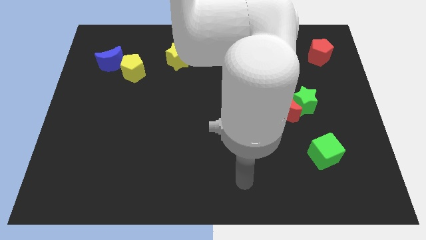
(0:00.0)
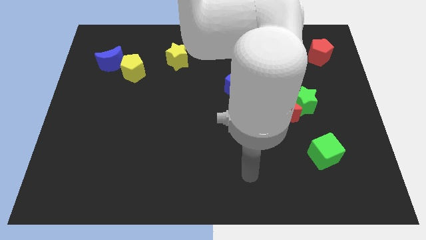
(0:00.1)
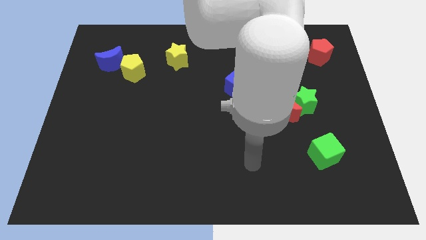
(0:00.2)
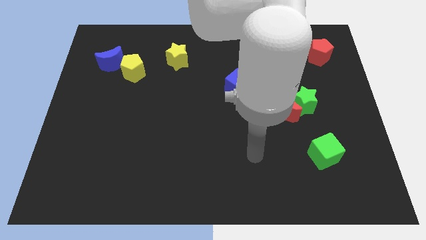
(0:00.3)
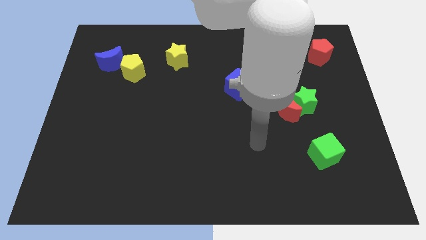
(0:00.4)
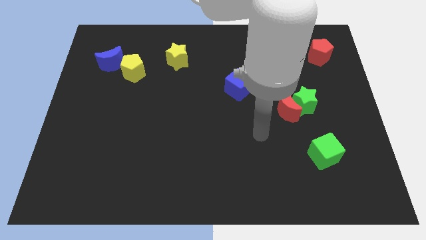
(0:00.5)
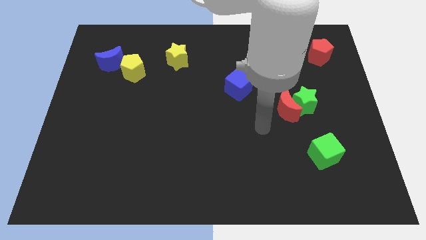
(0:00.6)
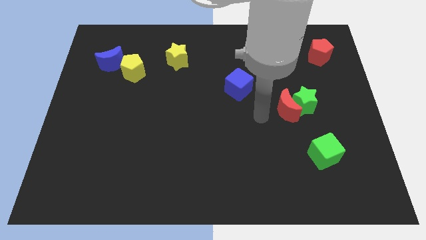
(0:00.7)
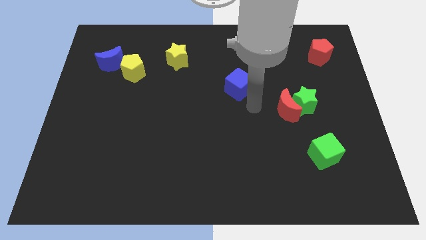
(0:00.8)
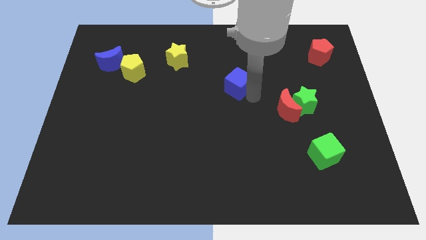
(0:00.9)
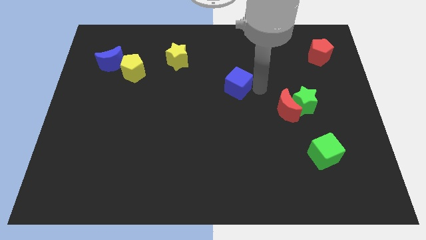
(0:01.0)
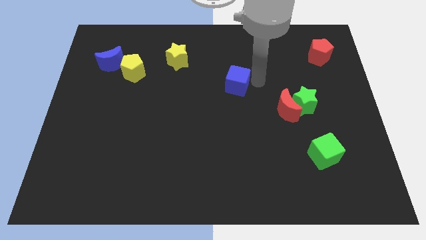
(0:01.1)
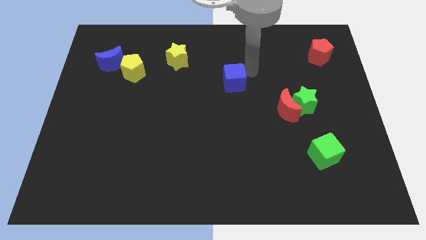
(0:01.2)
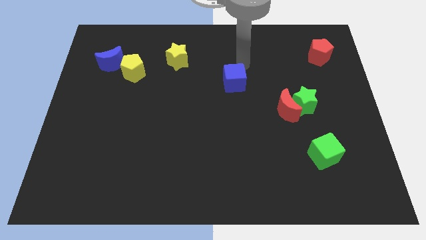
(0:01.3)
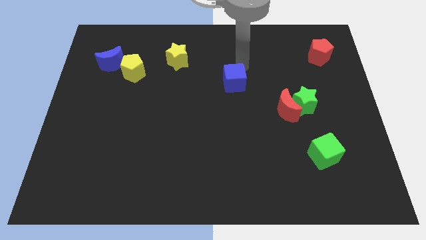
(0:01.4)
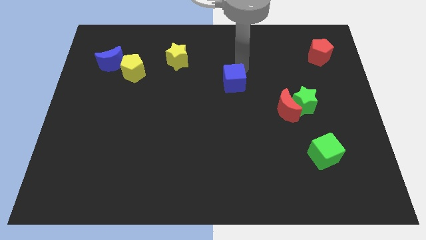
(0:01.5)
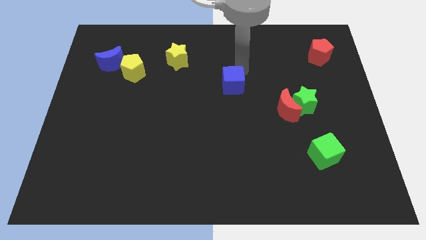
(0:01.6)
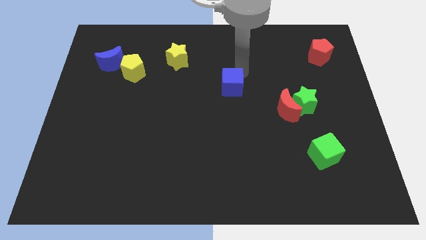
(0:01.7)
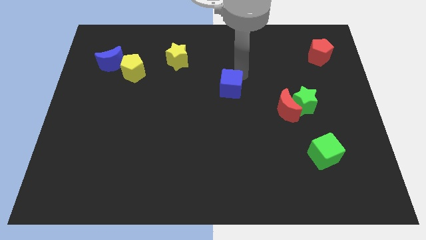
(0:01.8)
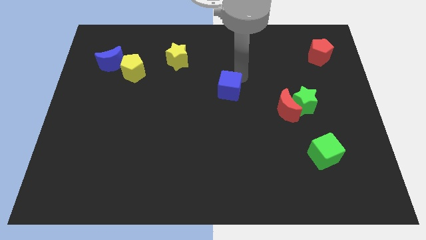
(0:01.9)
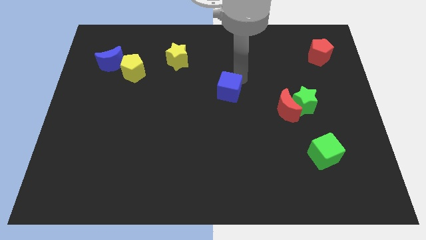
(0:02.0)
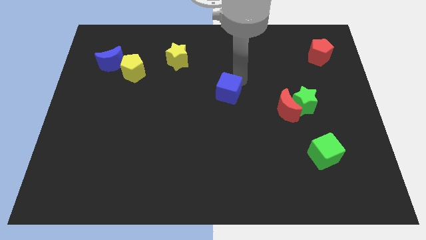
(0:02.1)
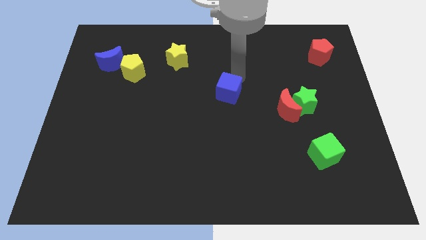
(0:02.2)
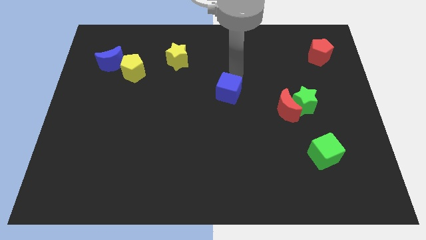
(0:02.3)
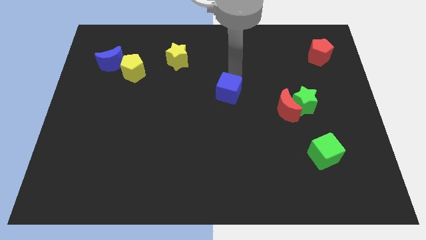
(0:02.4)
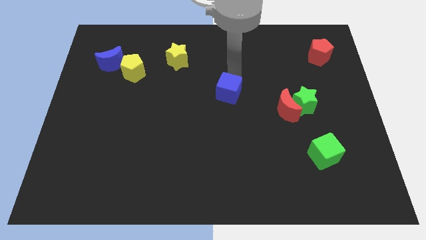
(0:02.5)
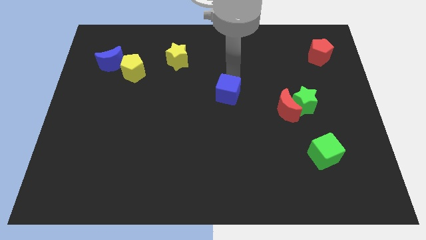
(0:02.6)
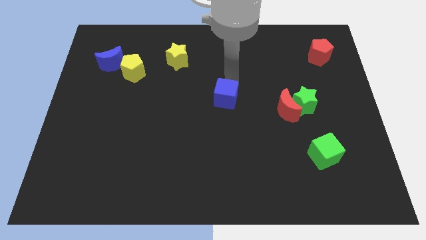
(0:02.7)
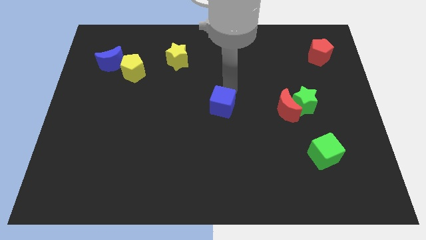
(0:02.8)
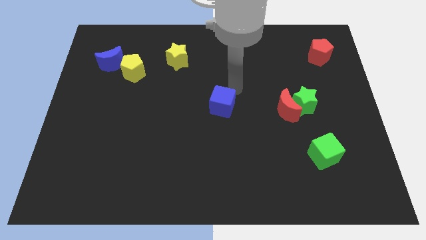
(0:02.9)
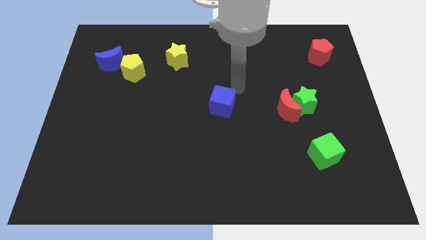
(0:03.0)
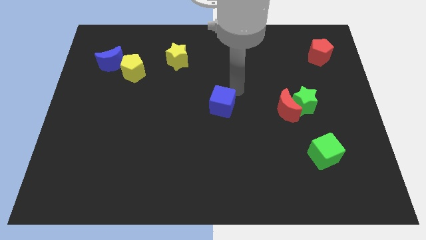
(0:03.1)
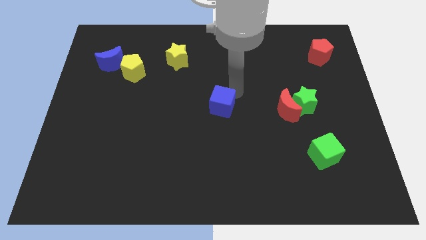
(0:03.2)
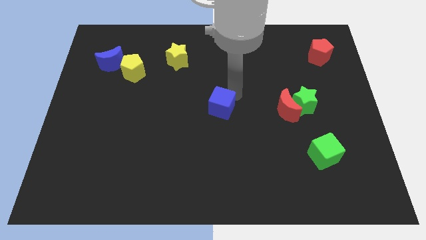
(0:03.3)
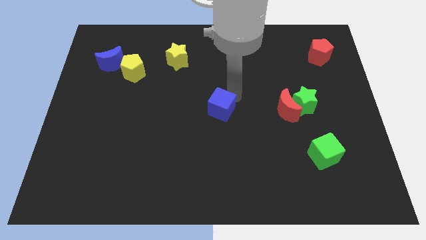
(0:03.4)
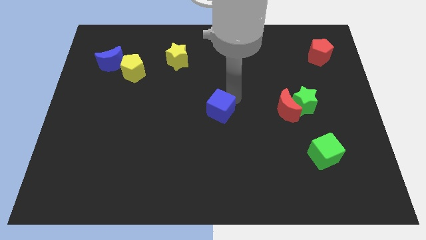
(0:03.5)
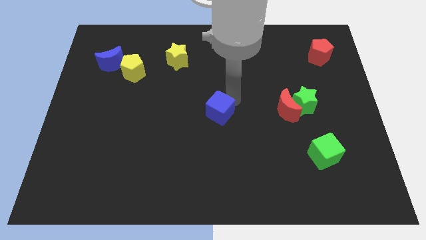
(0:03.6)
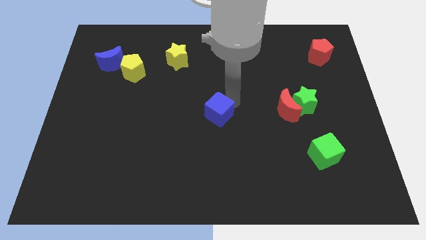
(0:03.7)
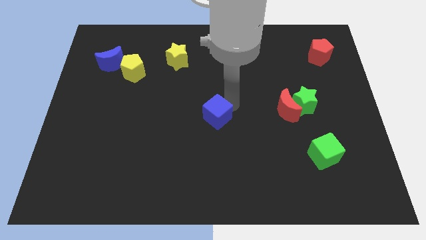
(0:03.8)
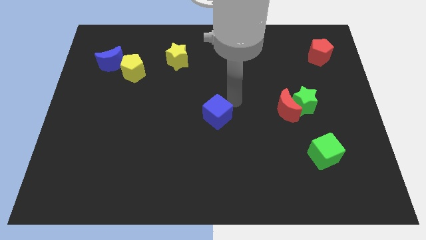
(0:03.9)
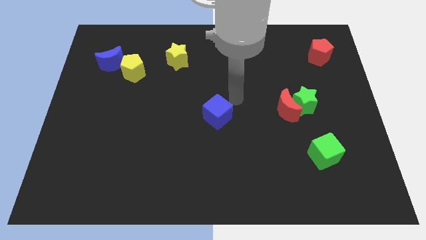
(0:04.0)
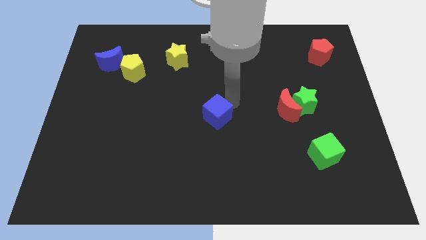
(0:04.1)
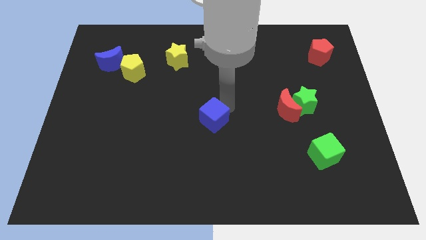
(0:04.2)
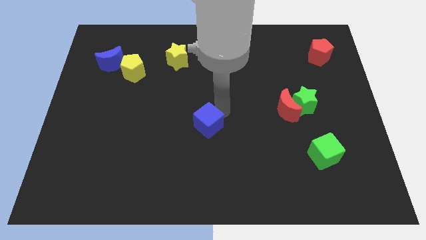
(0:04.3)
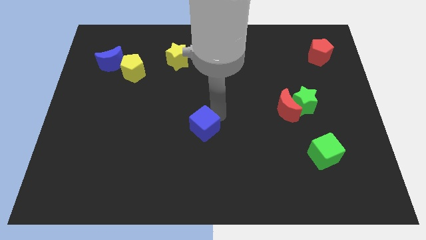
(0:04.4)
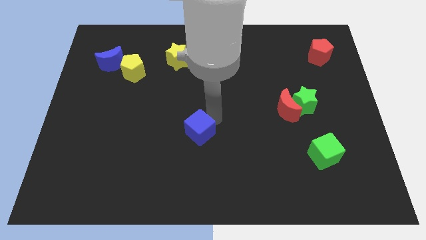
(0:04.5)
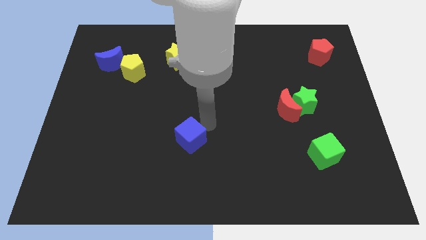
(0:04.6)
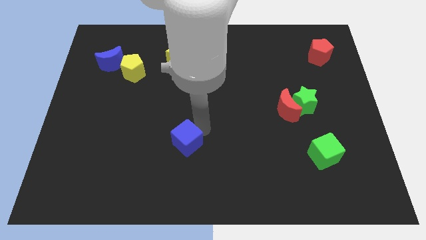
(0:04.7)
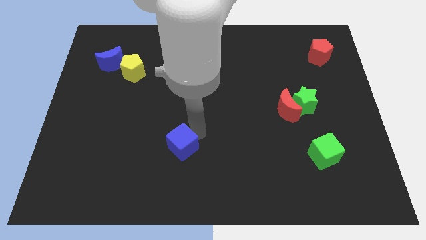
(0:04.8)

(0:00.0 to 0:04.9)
slide the blue cube downwards and to the left

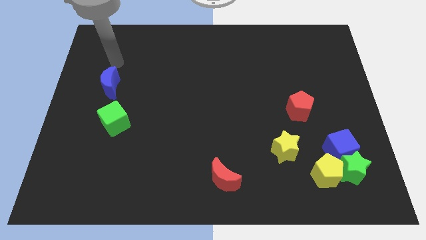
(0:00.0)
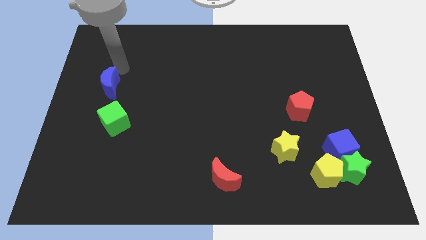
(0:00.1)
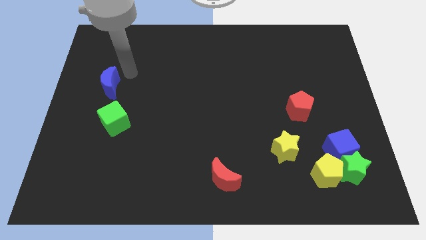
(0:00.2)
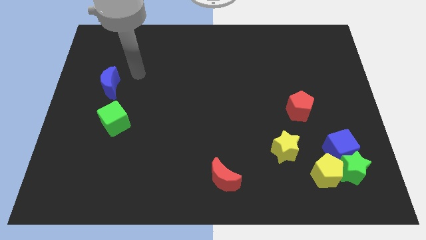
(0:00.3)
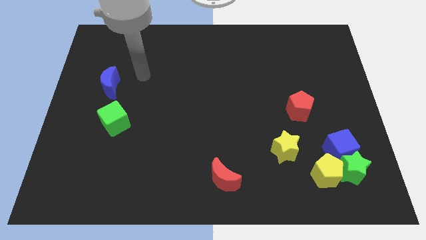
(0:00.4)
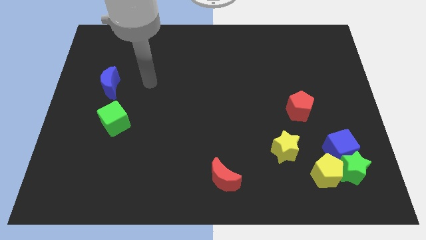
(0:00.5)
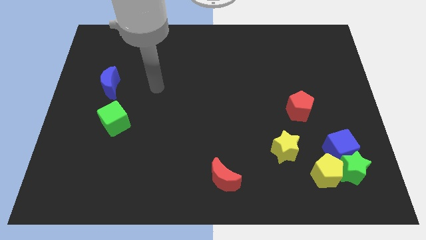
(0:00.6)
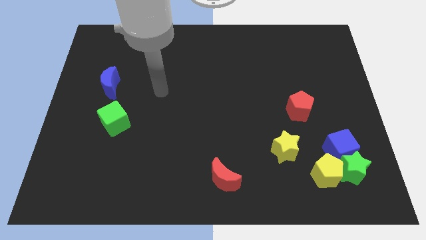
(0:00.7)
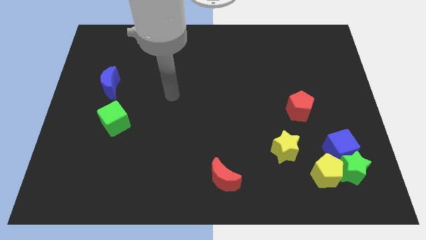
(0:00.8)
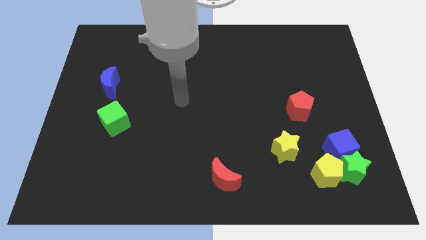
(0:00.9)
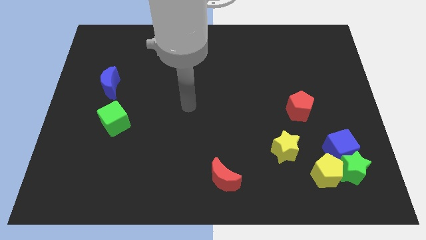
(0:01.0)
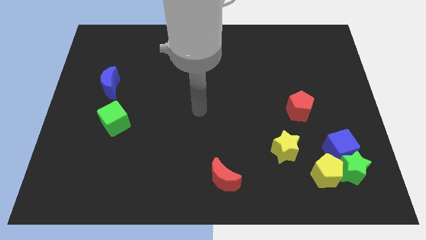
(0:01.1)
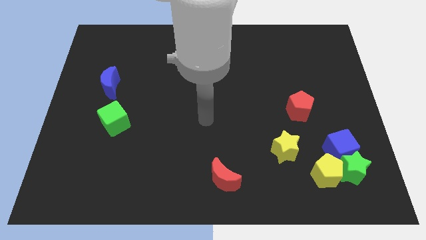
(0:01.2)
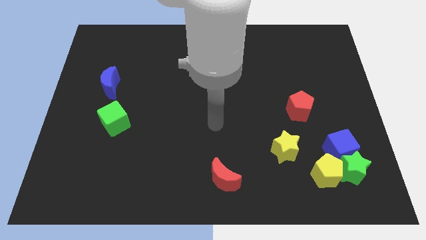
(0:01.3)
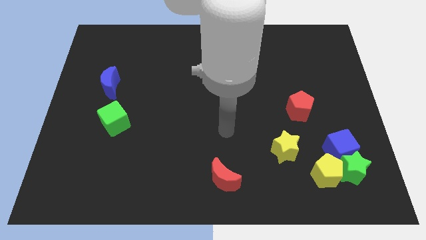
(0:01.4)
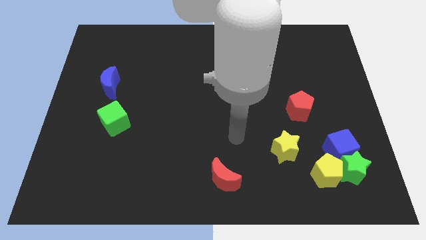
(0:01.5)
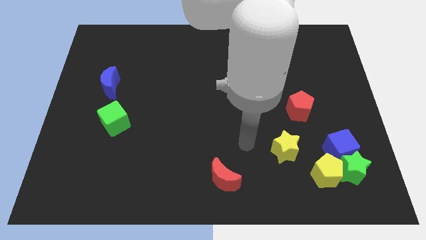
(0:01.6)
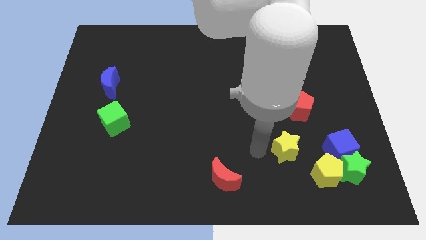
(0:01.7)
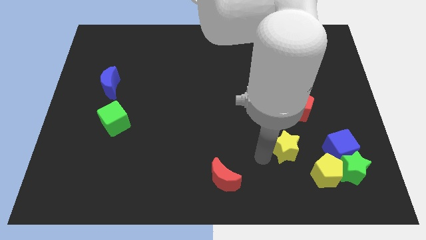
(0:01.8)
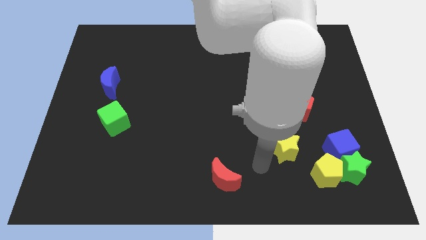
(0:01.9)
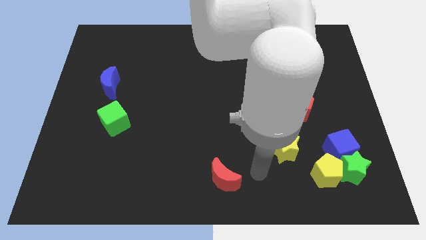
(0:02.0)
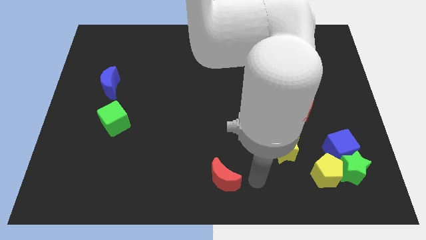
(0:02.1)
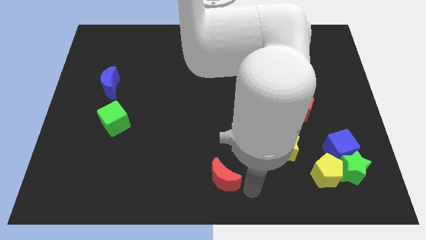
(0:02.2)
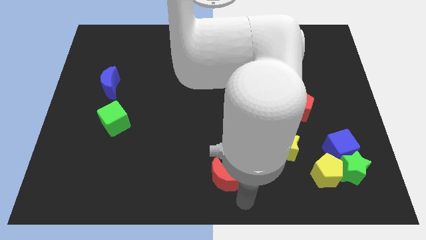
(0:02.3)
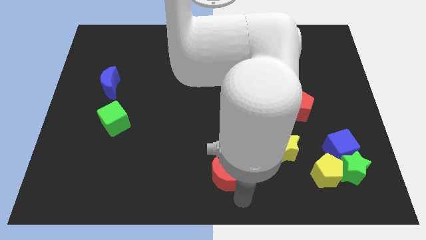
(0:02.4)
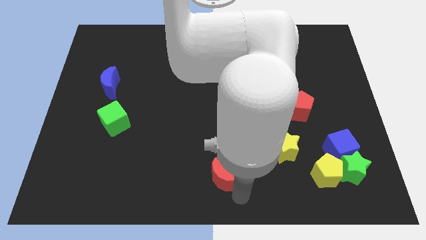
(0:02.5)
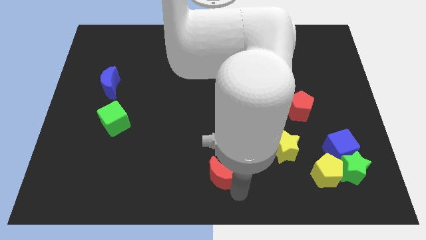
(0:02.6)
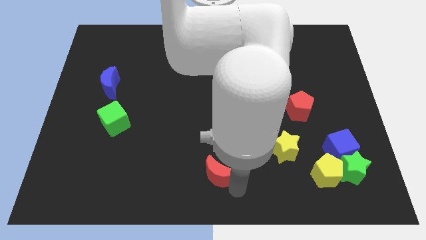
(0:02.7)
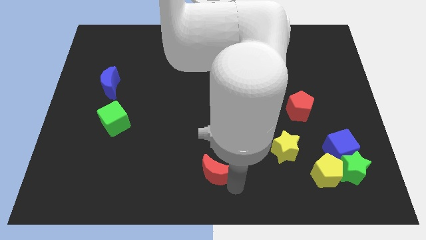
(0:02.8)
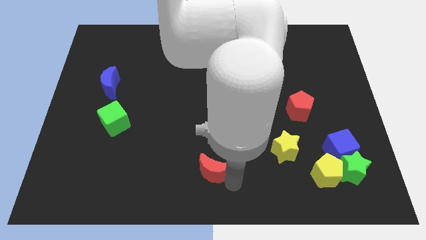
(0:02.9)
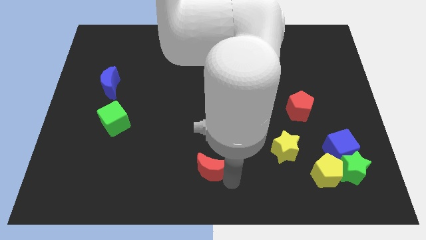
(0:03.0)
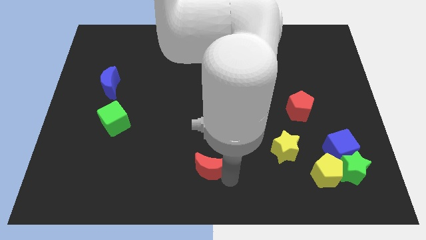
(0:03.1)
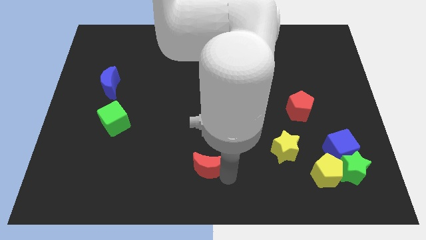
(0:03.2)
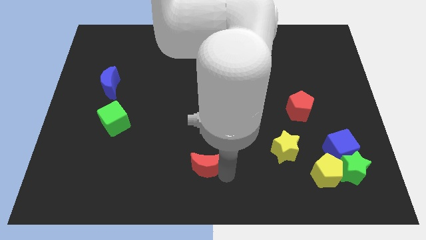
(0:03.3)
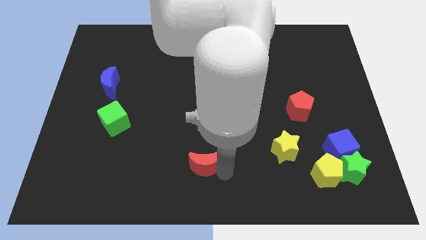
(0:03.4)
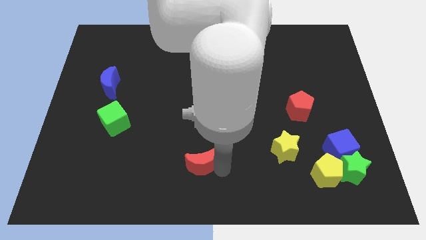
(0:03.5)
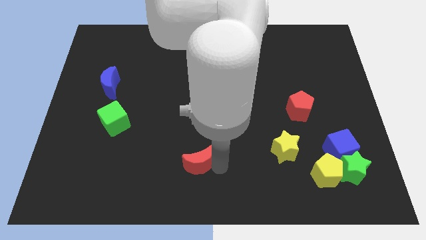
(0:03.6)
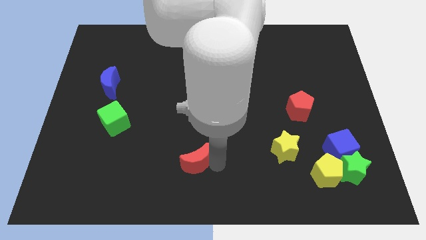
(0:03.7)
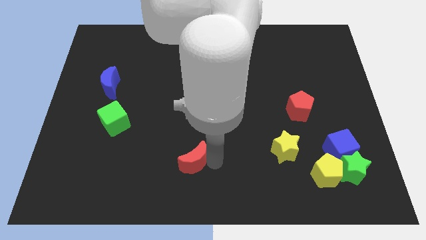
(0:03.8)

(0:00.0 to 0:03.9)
slightly slide the red moon up and to the left
